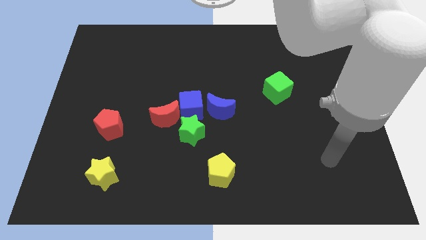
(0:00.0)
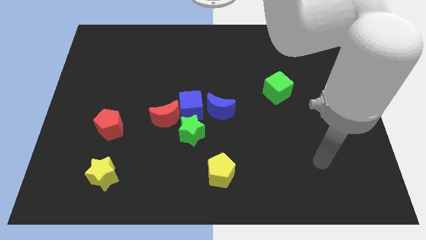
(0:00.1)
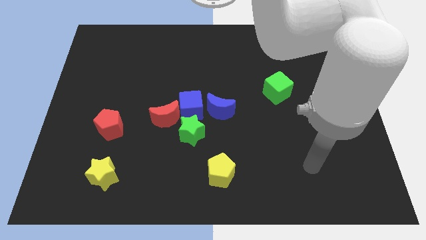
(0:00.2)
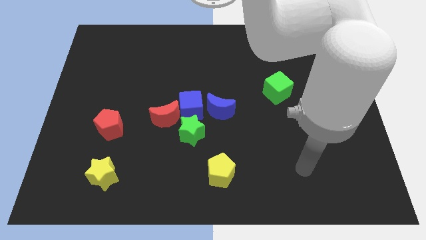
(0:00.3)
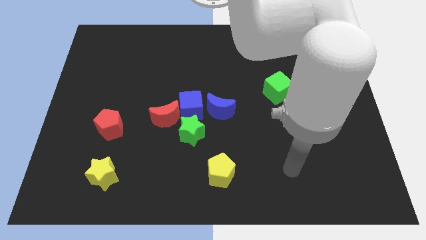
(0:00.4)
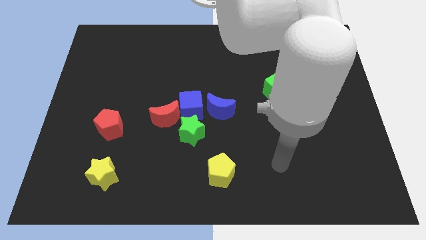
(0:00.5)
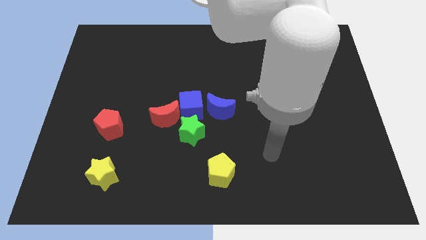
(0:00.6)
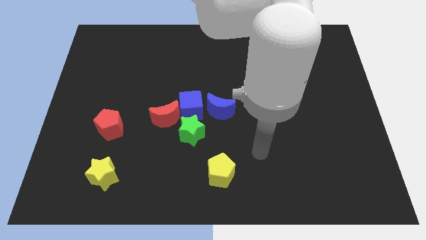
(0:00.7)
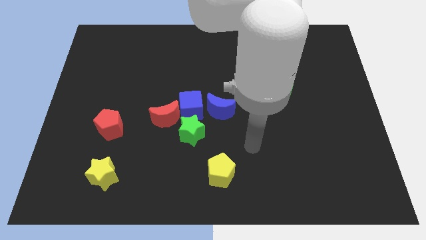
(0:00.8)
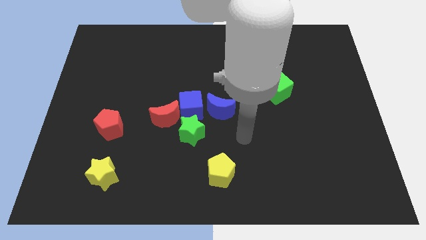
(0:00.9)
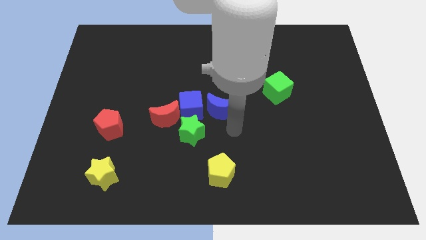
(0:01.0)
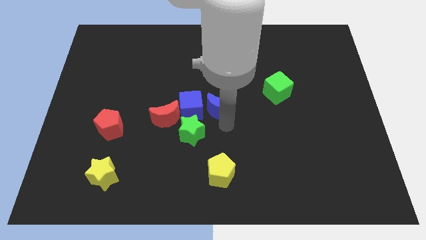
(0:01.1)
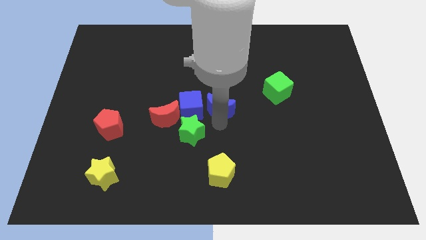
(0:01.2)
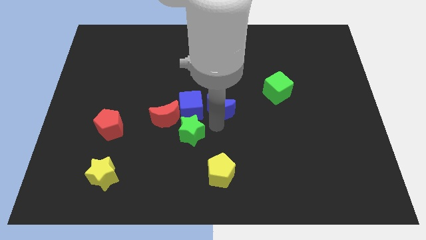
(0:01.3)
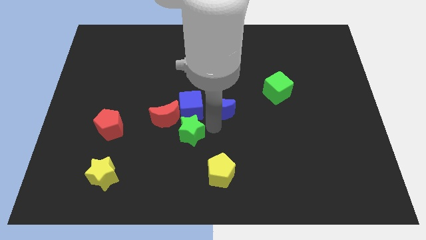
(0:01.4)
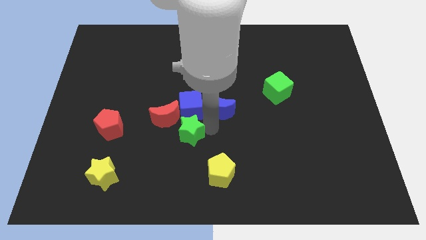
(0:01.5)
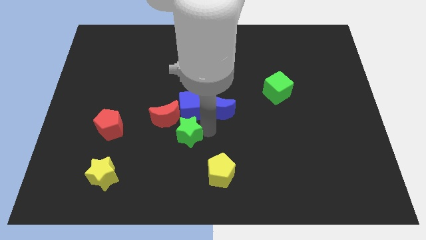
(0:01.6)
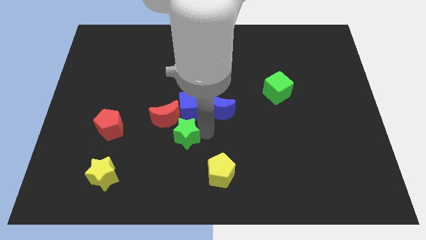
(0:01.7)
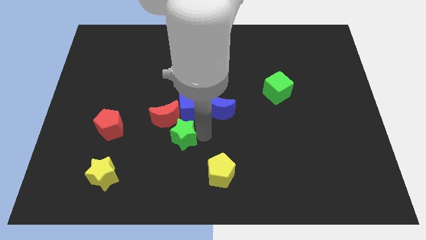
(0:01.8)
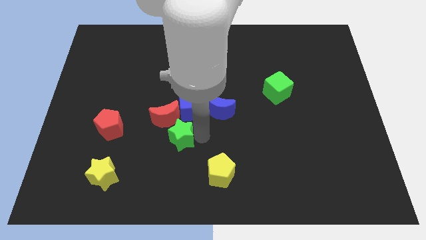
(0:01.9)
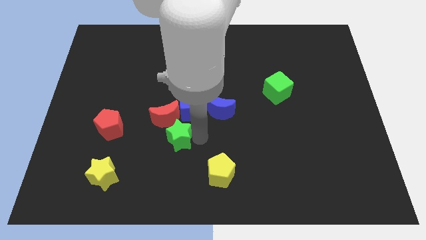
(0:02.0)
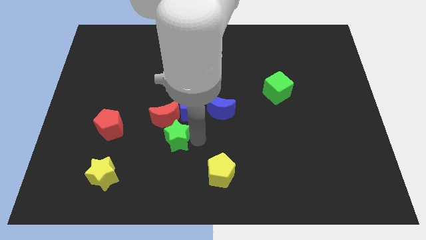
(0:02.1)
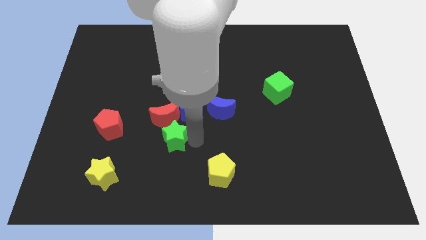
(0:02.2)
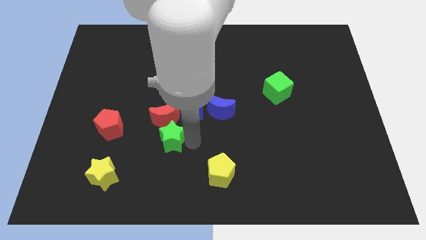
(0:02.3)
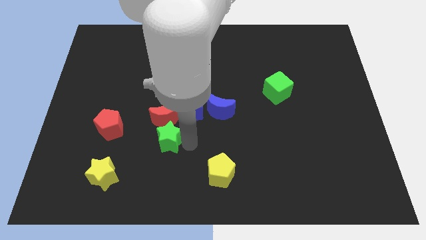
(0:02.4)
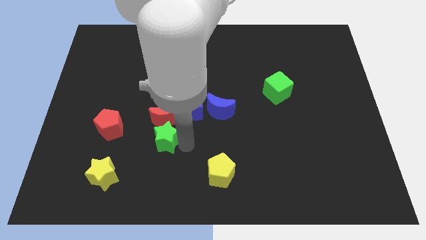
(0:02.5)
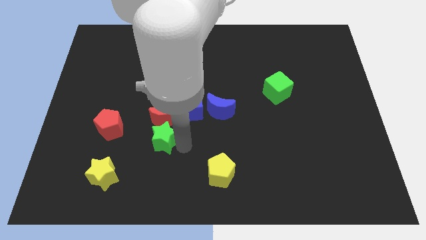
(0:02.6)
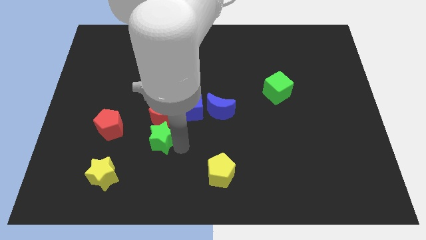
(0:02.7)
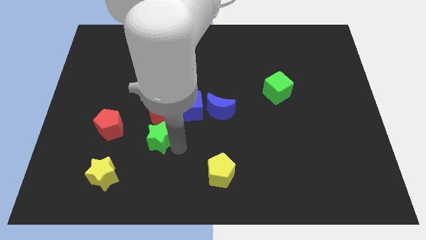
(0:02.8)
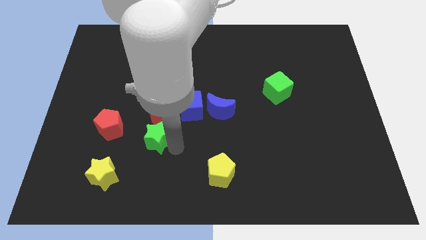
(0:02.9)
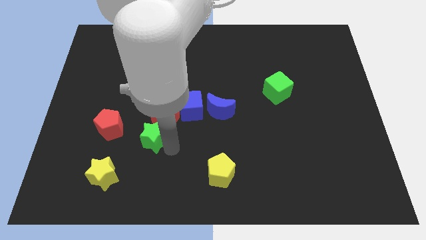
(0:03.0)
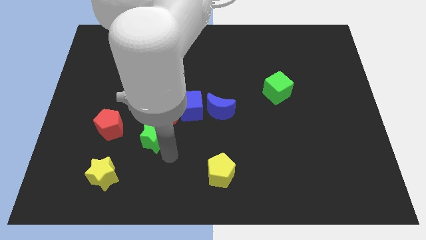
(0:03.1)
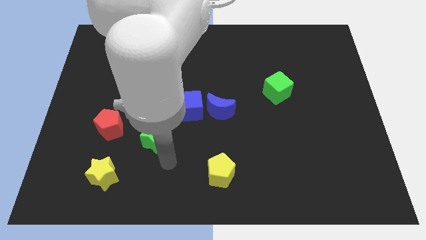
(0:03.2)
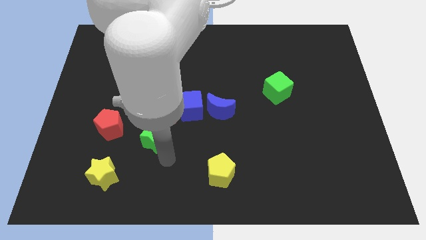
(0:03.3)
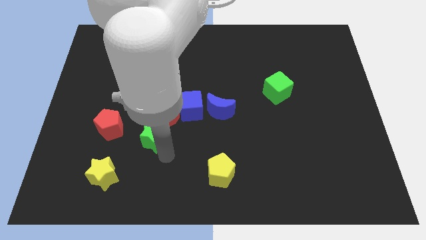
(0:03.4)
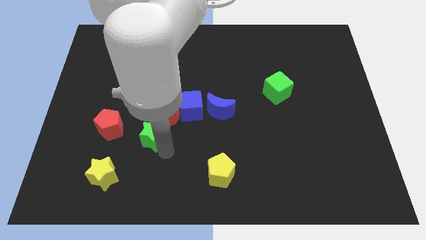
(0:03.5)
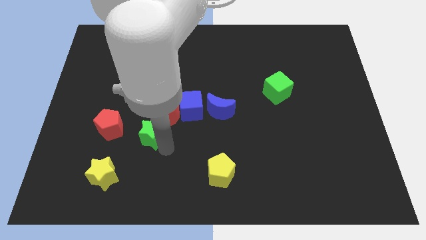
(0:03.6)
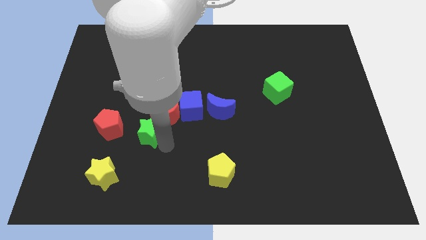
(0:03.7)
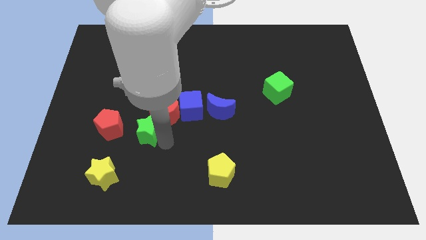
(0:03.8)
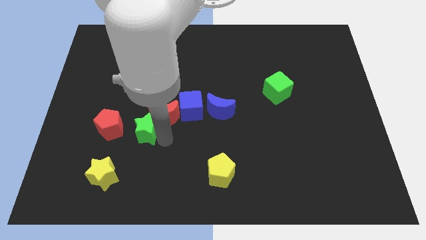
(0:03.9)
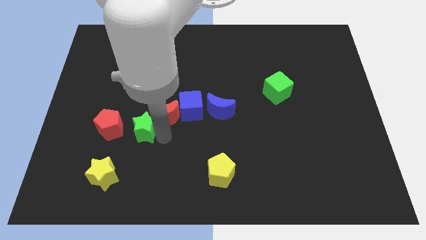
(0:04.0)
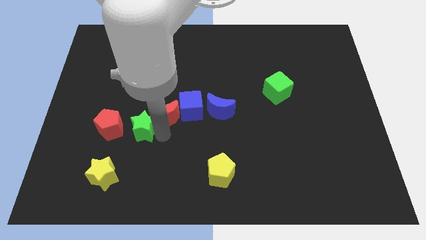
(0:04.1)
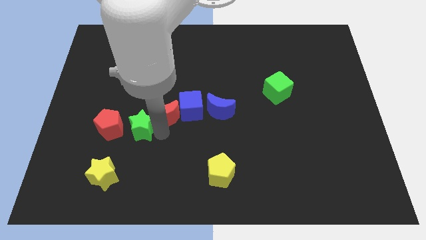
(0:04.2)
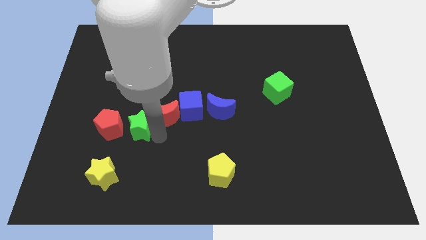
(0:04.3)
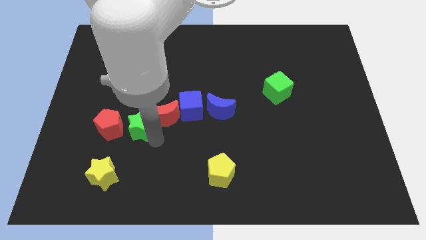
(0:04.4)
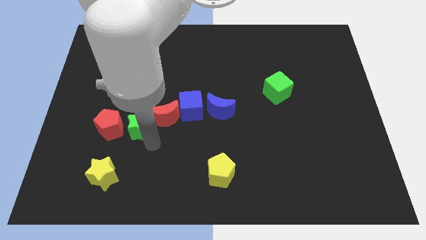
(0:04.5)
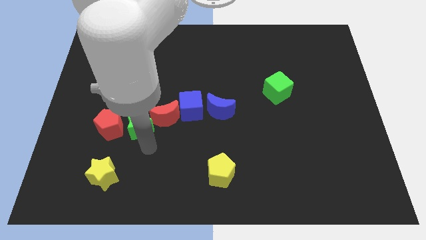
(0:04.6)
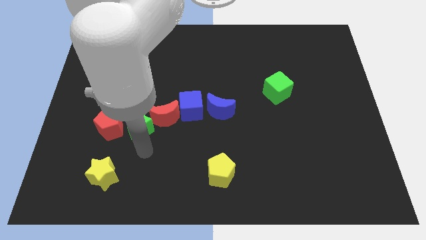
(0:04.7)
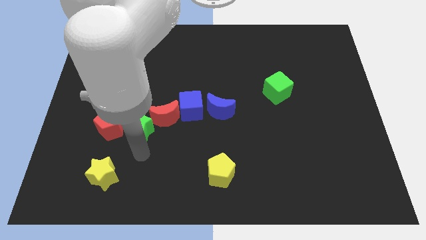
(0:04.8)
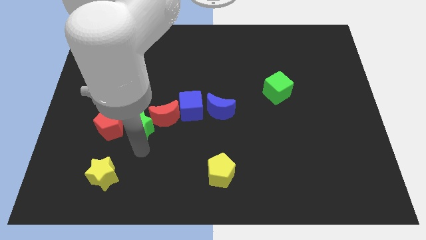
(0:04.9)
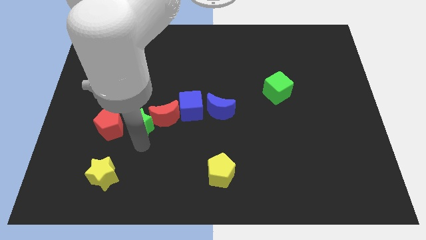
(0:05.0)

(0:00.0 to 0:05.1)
push the green star a little bit up and to the left diagonally

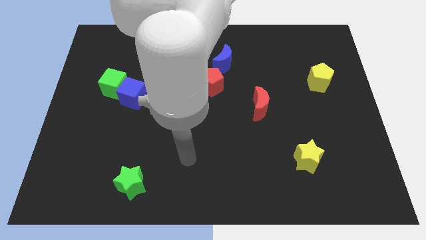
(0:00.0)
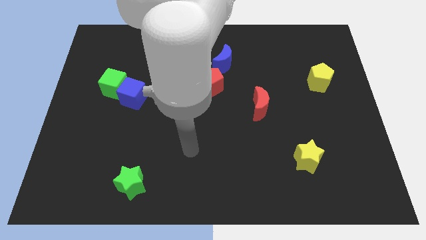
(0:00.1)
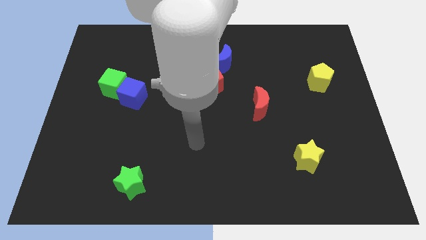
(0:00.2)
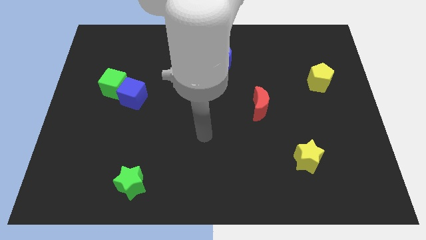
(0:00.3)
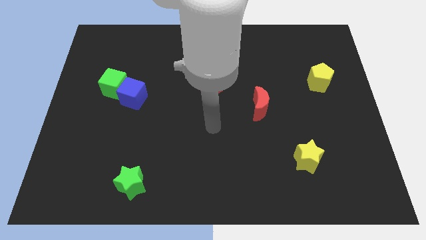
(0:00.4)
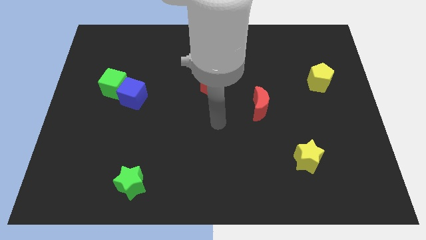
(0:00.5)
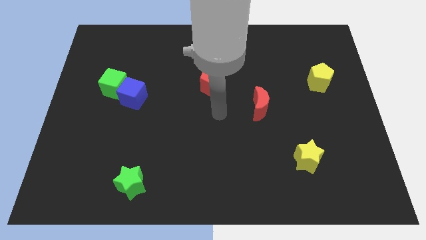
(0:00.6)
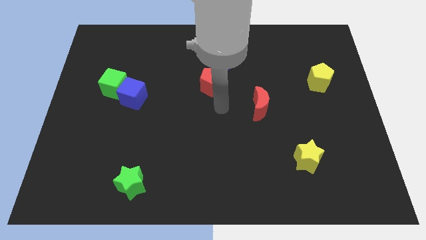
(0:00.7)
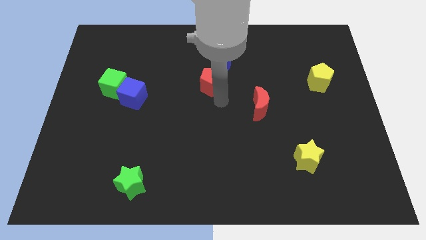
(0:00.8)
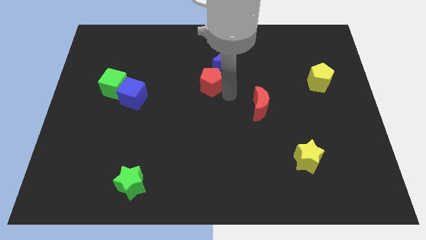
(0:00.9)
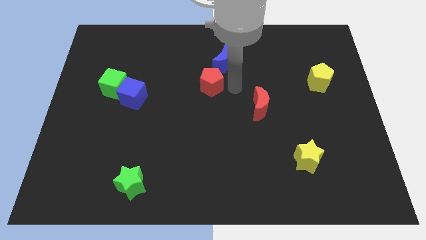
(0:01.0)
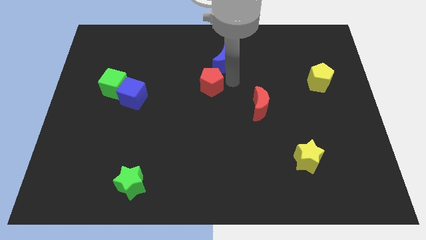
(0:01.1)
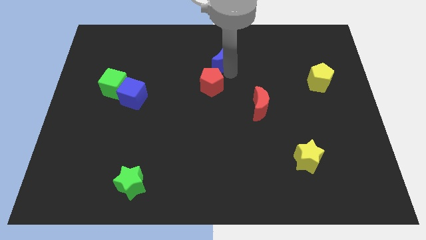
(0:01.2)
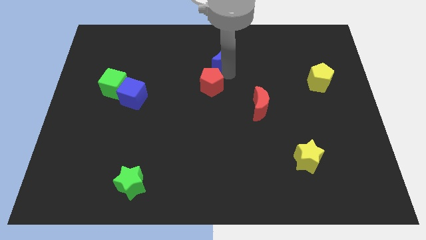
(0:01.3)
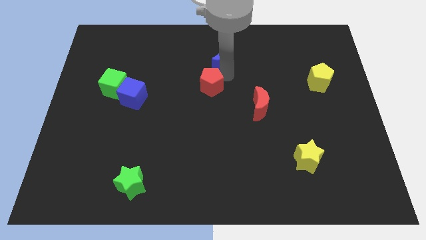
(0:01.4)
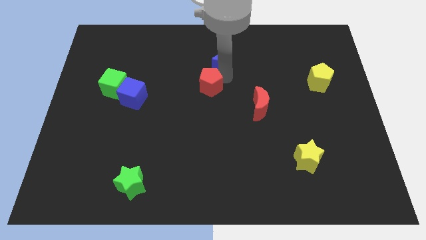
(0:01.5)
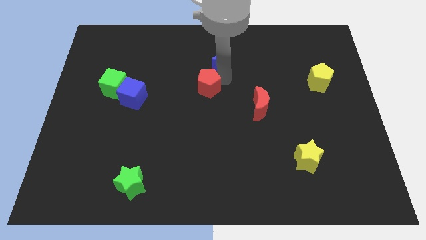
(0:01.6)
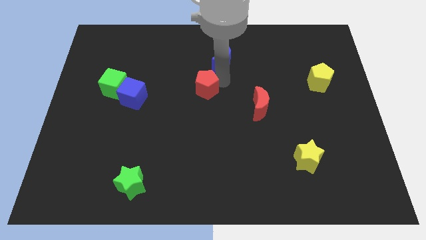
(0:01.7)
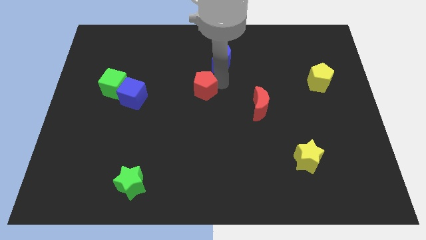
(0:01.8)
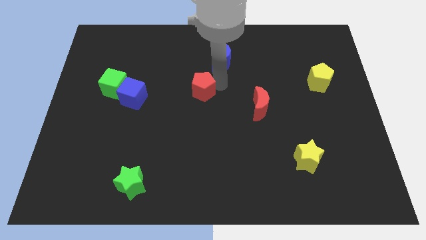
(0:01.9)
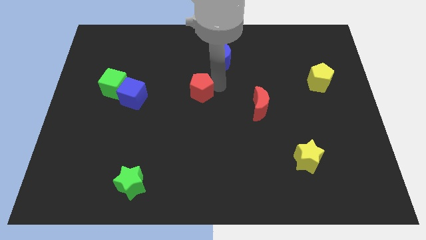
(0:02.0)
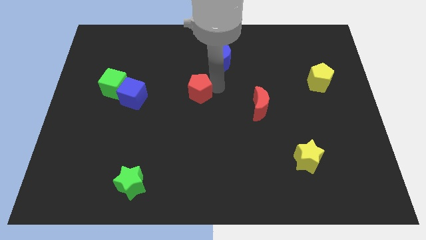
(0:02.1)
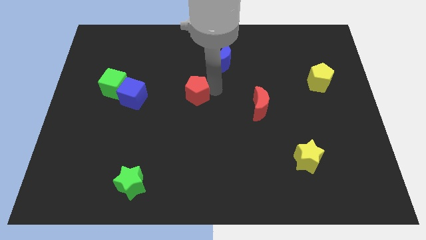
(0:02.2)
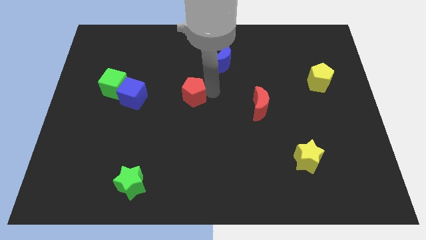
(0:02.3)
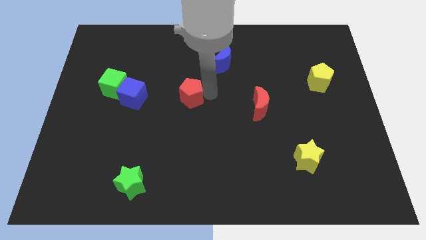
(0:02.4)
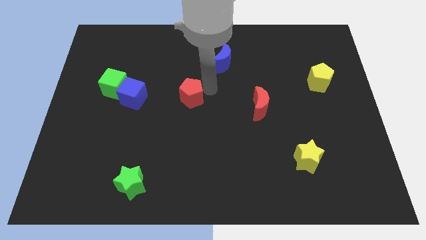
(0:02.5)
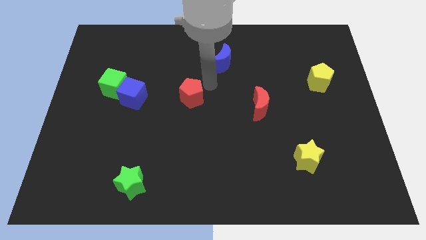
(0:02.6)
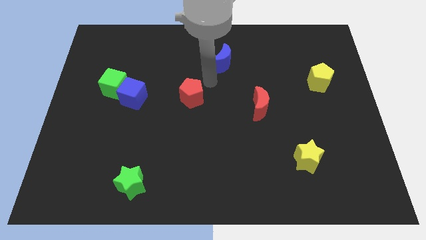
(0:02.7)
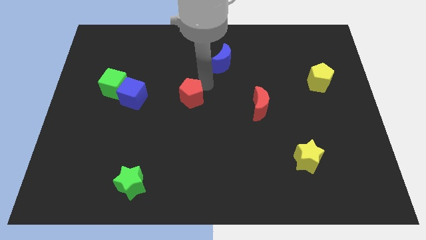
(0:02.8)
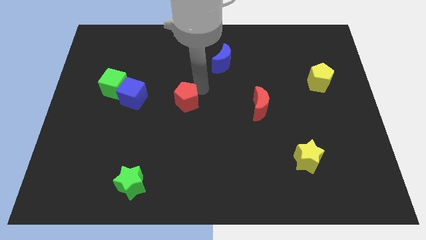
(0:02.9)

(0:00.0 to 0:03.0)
slightly push the red pentagon downwards and then to the left
